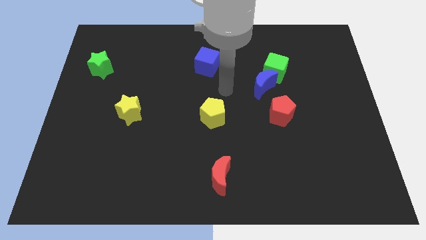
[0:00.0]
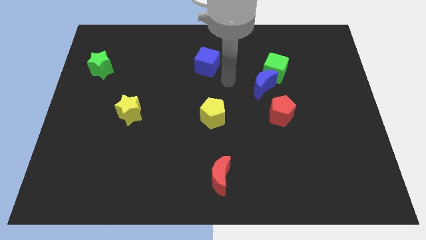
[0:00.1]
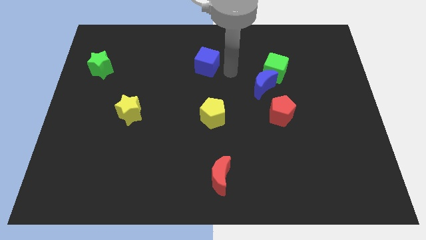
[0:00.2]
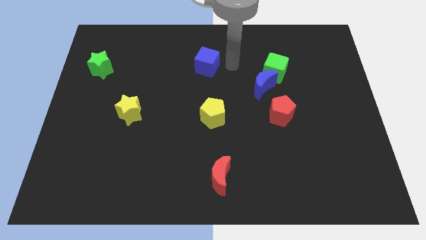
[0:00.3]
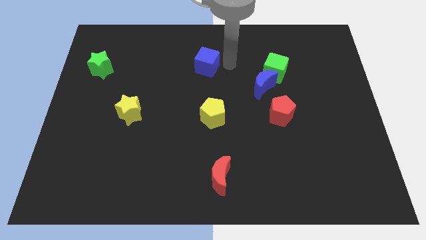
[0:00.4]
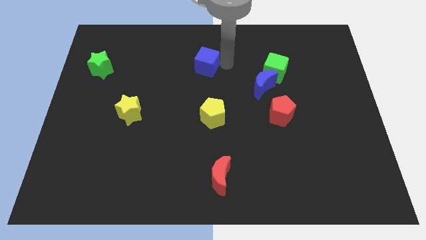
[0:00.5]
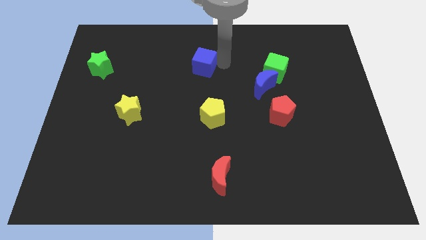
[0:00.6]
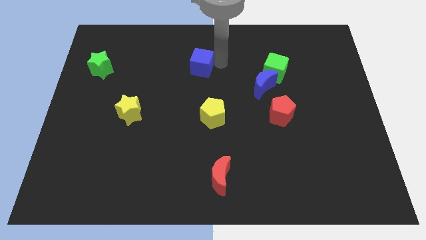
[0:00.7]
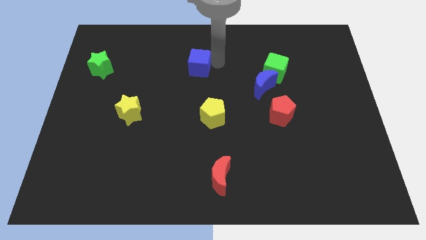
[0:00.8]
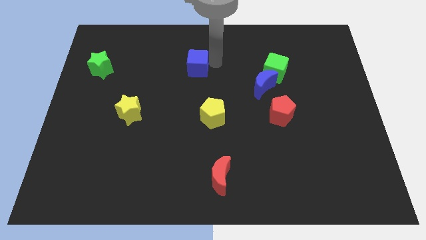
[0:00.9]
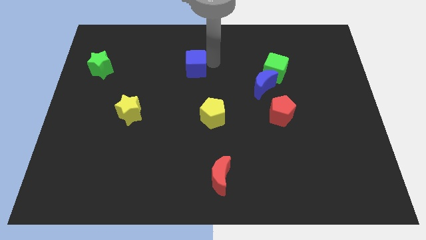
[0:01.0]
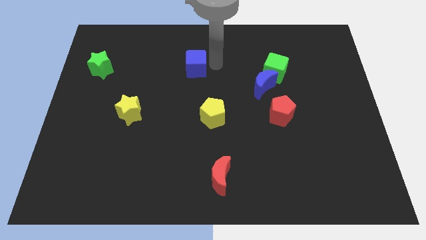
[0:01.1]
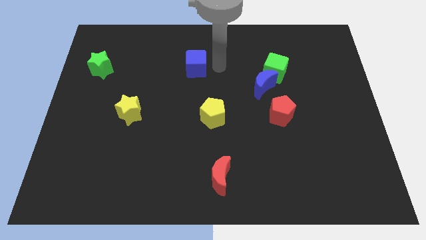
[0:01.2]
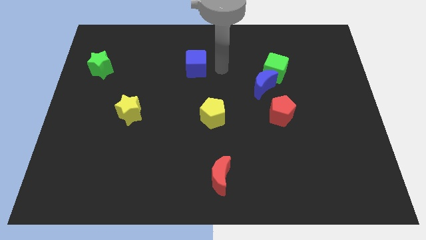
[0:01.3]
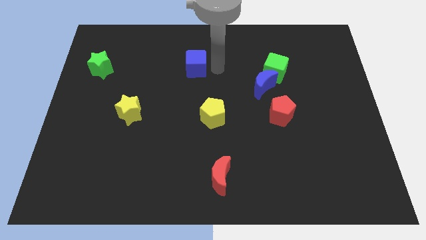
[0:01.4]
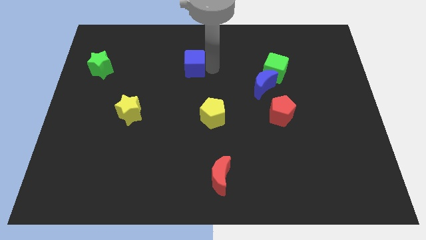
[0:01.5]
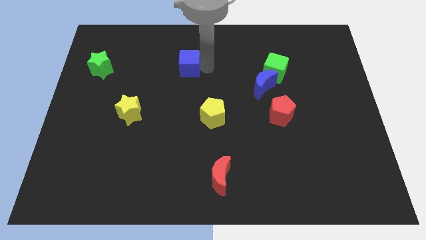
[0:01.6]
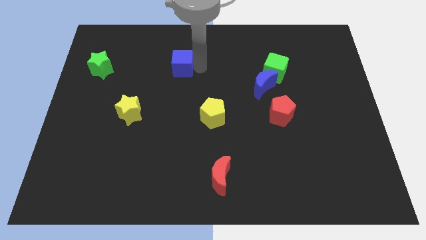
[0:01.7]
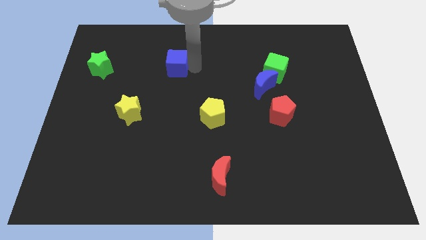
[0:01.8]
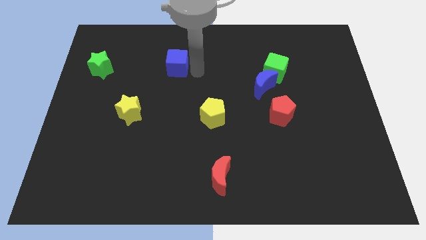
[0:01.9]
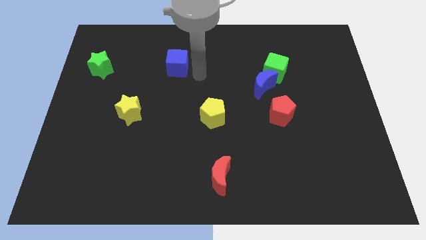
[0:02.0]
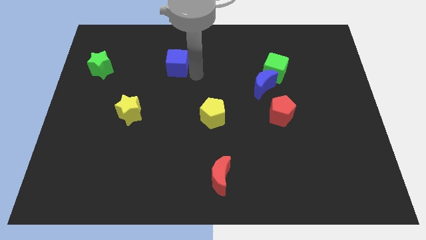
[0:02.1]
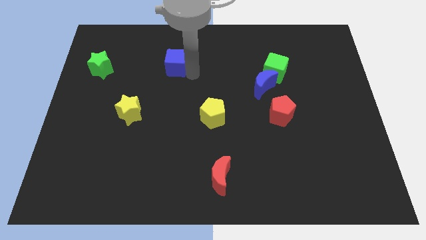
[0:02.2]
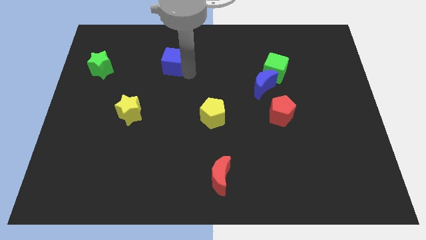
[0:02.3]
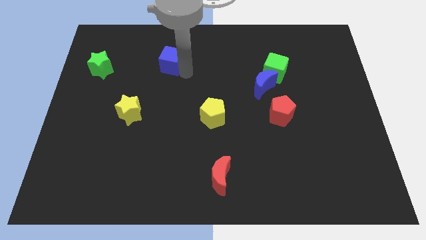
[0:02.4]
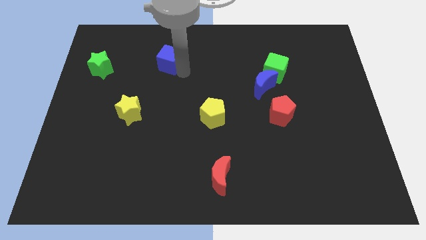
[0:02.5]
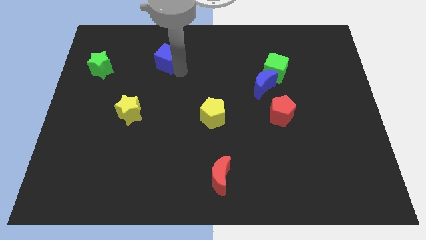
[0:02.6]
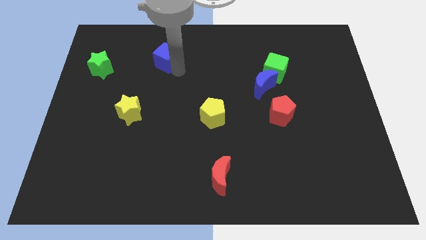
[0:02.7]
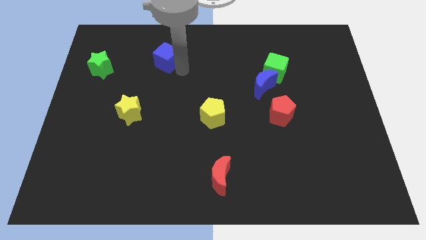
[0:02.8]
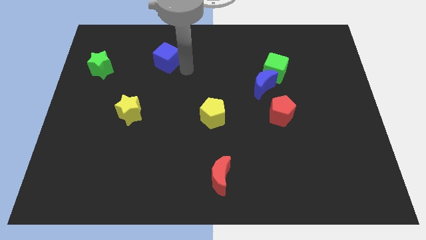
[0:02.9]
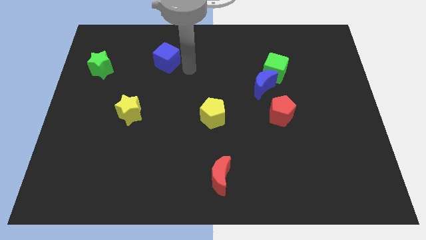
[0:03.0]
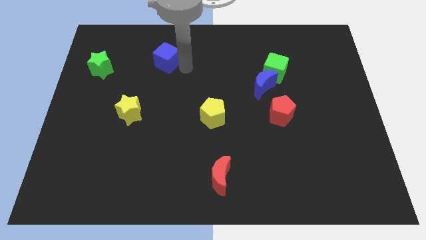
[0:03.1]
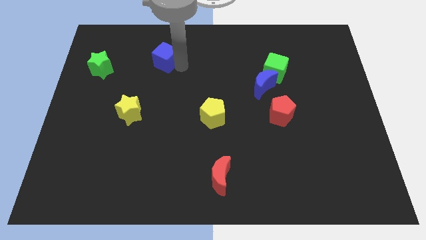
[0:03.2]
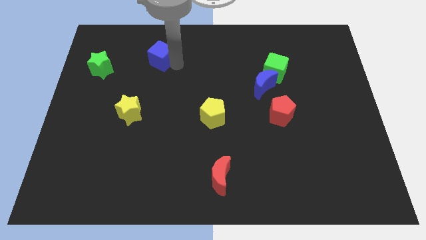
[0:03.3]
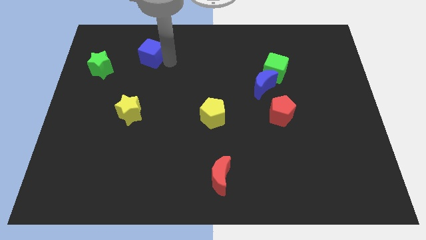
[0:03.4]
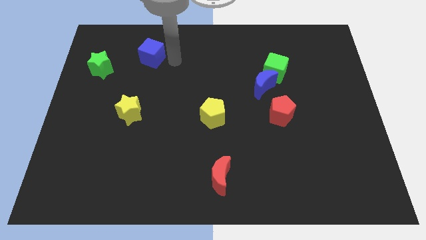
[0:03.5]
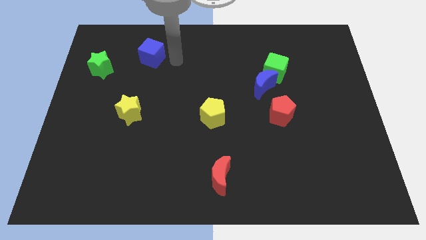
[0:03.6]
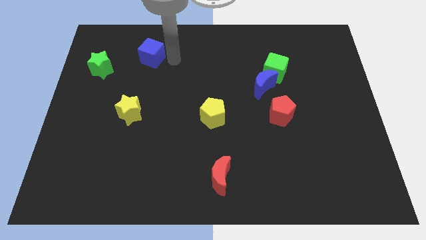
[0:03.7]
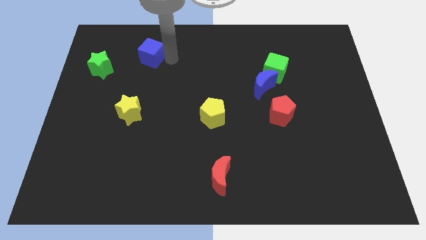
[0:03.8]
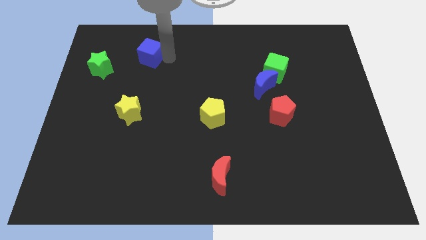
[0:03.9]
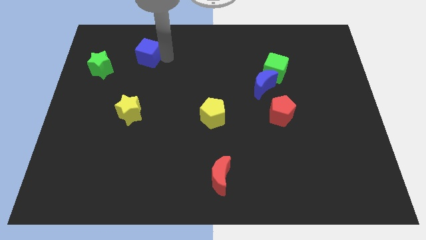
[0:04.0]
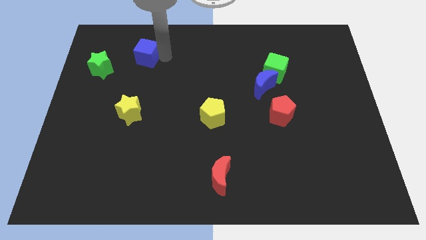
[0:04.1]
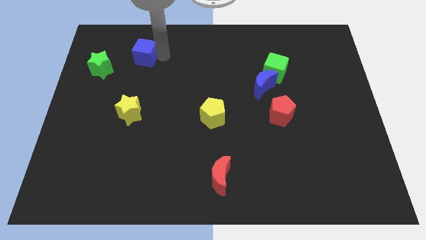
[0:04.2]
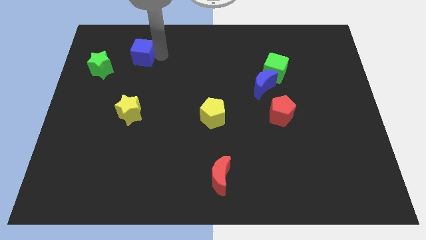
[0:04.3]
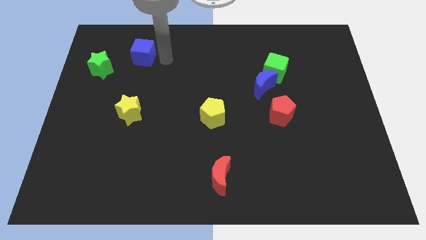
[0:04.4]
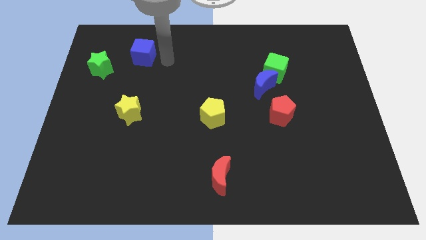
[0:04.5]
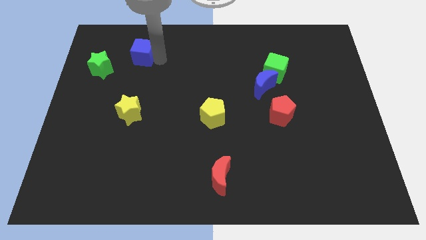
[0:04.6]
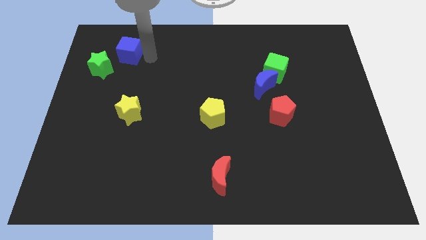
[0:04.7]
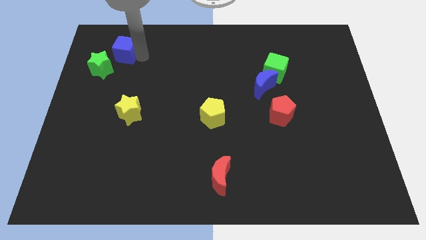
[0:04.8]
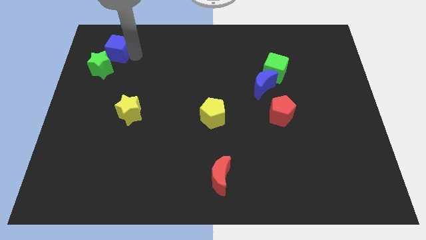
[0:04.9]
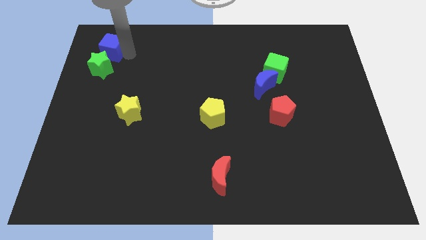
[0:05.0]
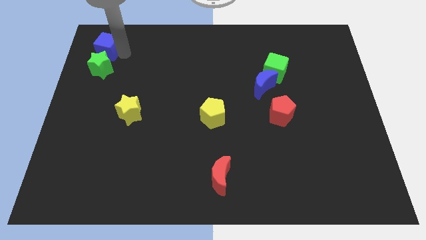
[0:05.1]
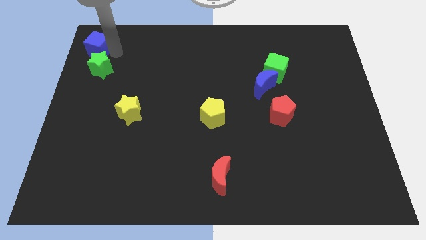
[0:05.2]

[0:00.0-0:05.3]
slide the blue cube to the upper left corner
